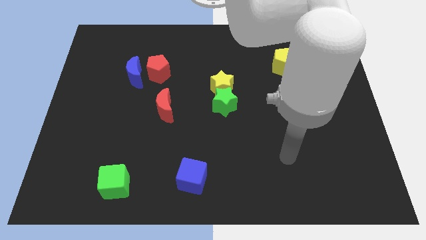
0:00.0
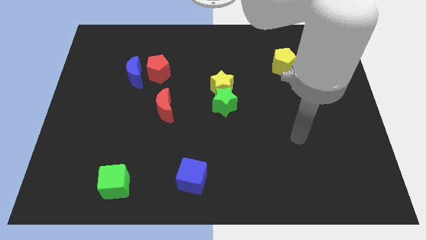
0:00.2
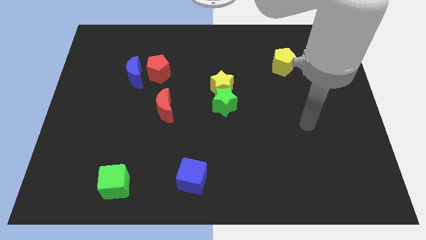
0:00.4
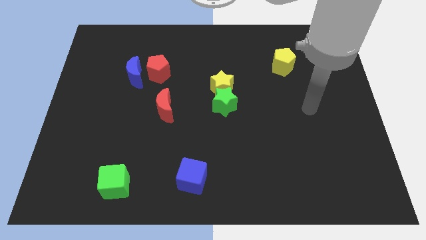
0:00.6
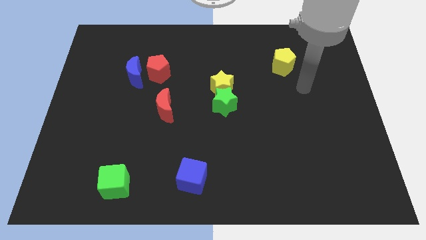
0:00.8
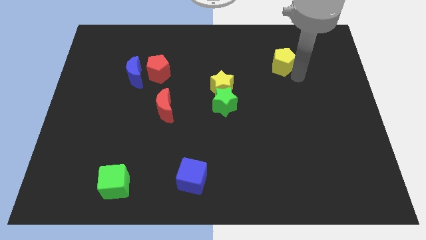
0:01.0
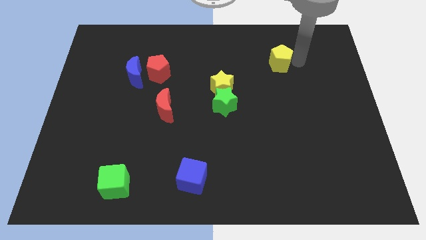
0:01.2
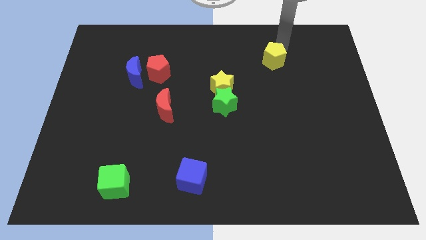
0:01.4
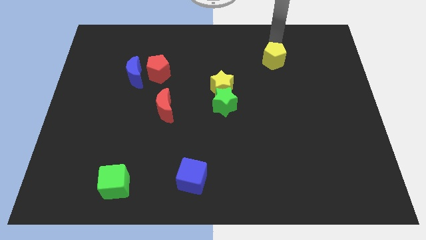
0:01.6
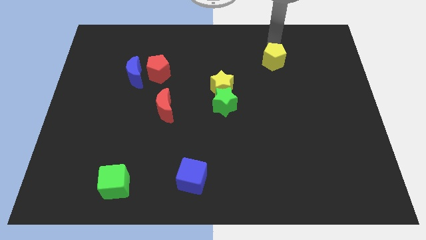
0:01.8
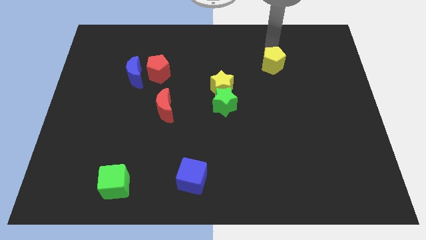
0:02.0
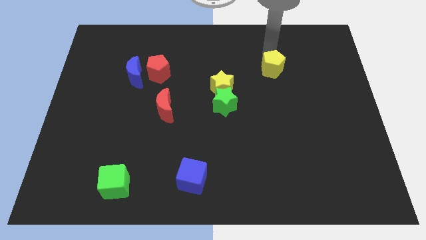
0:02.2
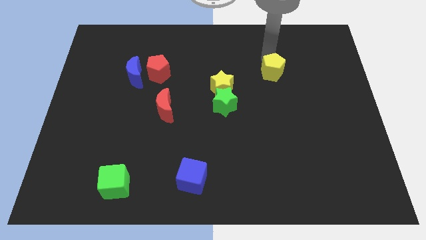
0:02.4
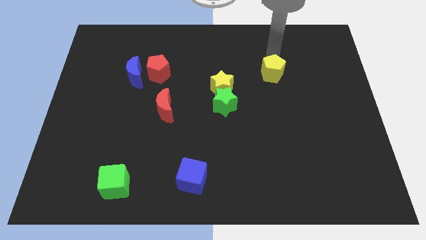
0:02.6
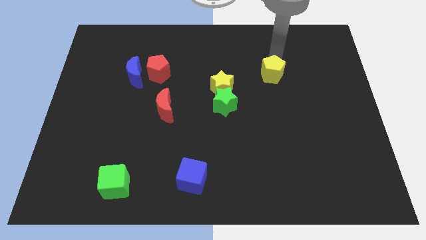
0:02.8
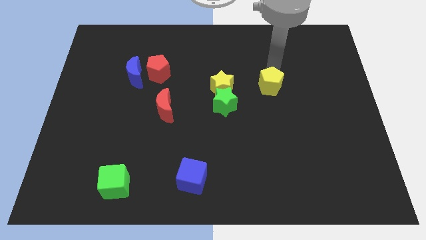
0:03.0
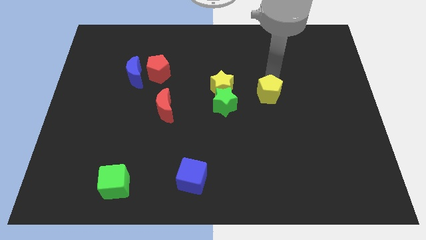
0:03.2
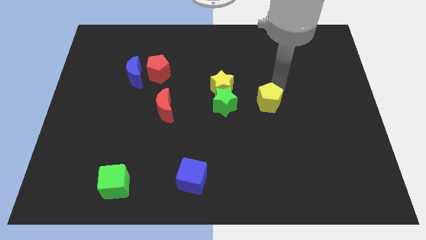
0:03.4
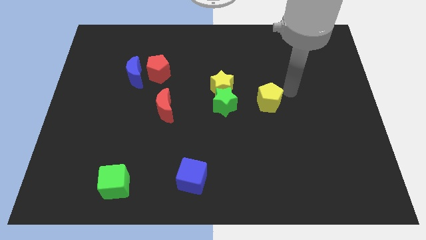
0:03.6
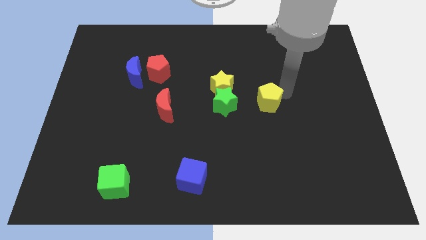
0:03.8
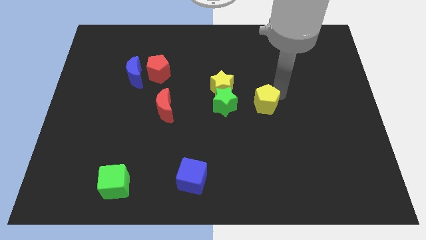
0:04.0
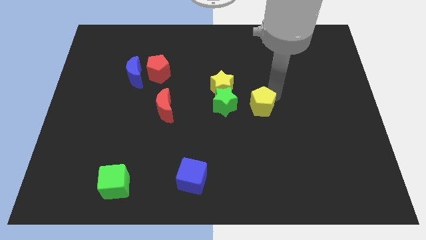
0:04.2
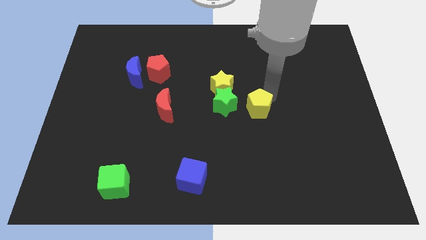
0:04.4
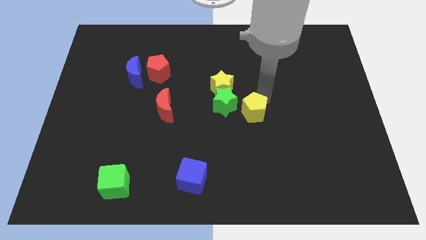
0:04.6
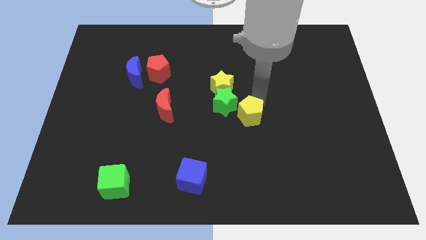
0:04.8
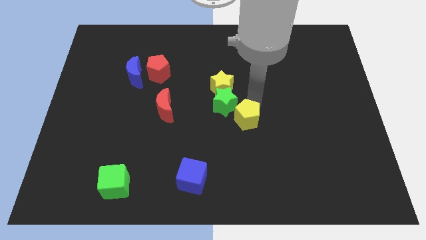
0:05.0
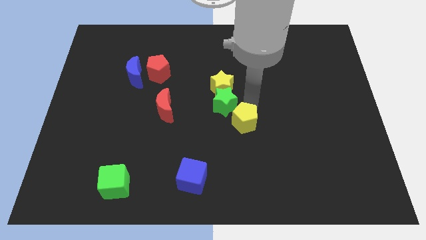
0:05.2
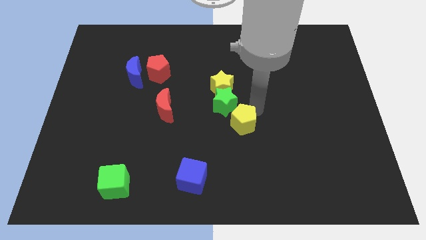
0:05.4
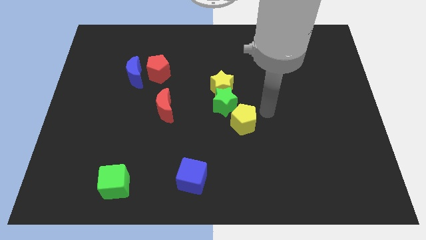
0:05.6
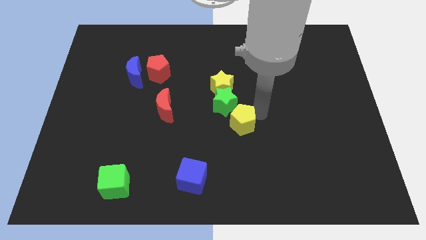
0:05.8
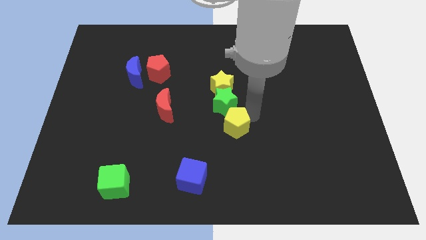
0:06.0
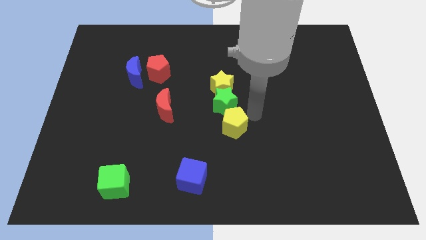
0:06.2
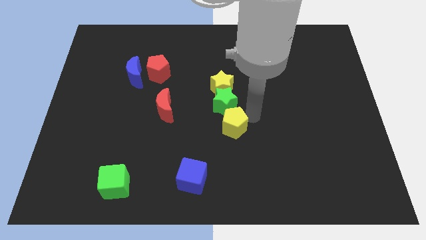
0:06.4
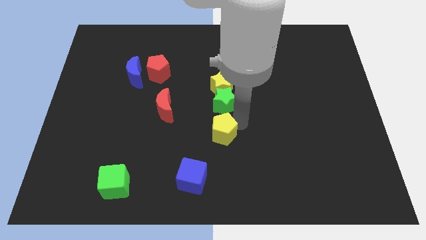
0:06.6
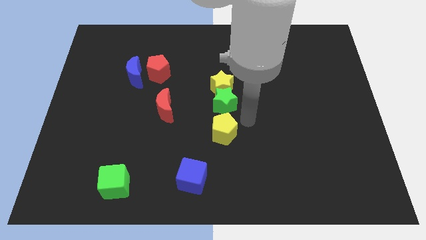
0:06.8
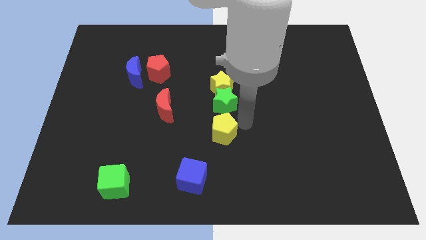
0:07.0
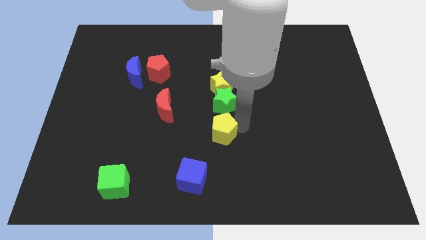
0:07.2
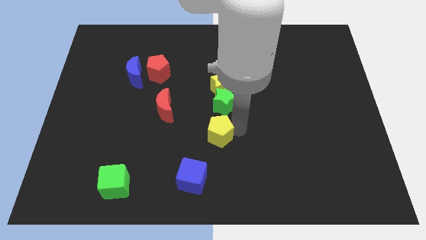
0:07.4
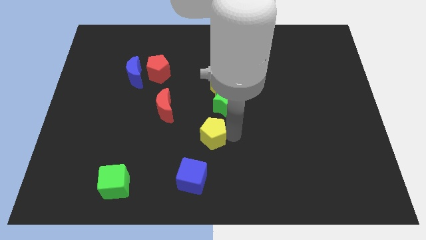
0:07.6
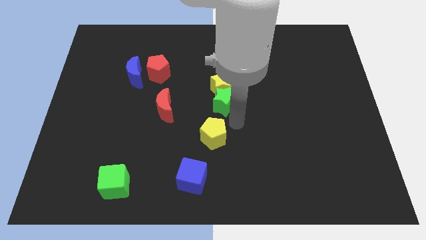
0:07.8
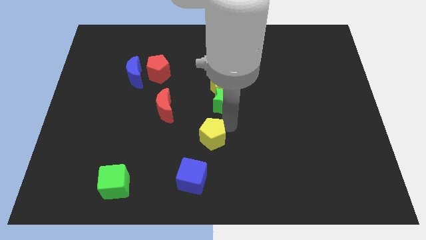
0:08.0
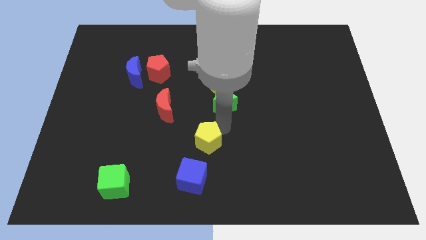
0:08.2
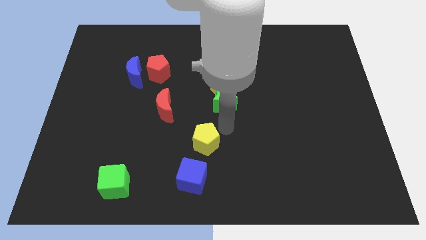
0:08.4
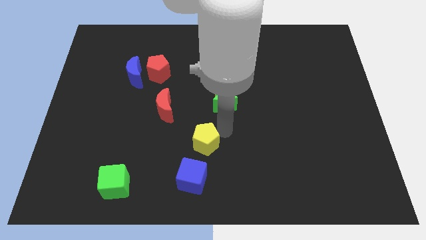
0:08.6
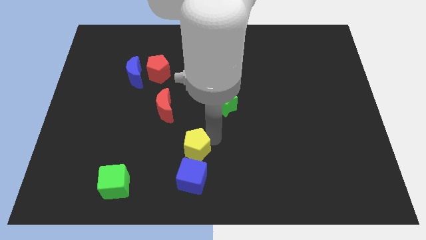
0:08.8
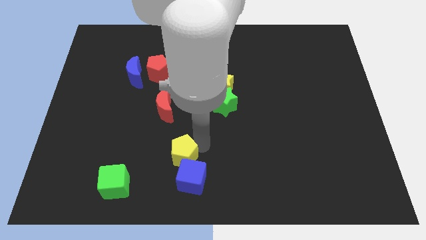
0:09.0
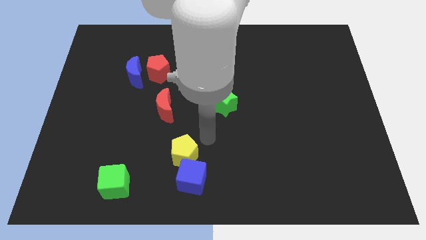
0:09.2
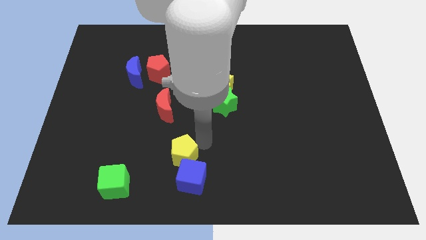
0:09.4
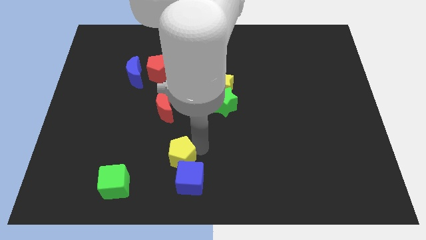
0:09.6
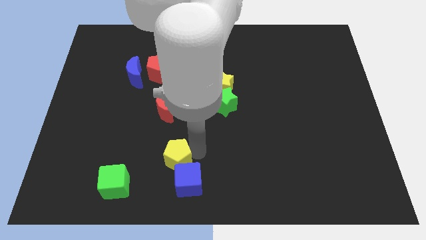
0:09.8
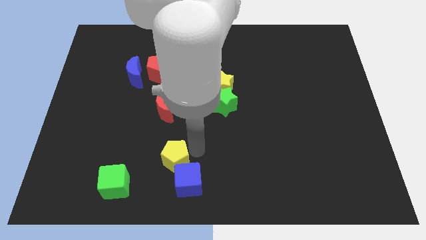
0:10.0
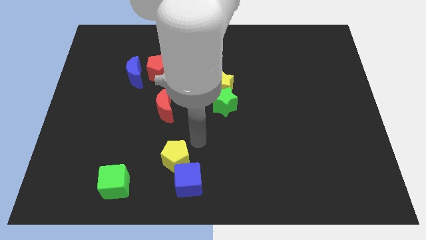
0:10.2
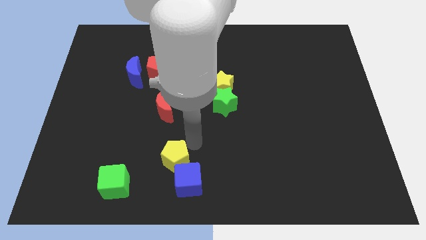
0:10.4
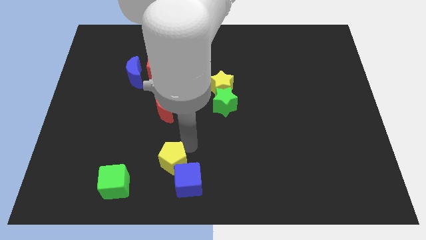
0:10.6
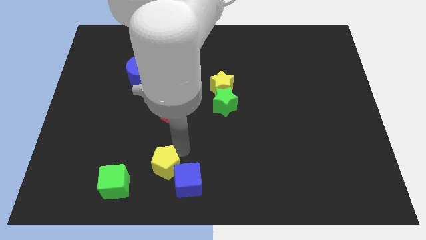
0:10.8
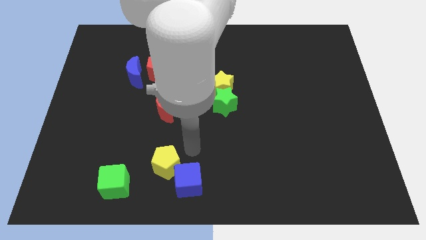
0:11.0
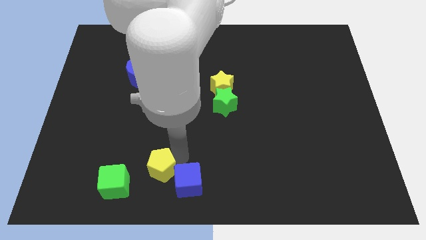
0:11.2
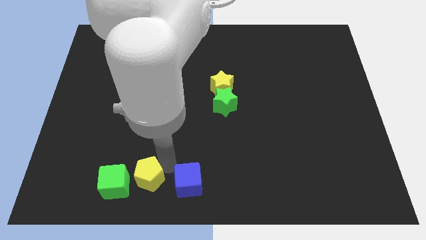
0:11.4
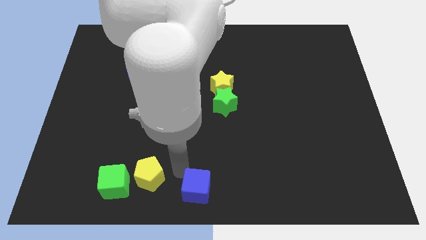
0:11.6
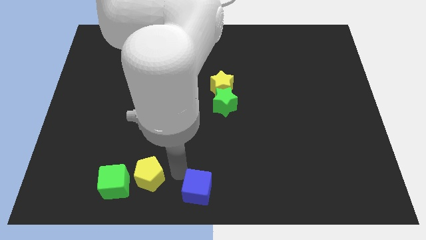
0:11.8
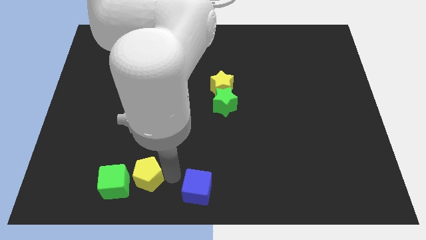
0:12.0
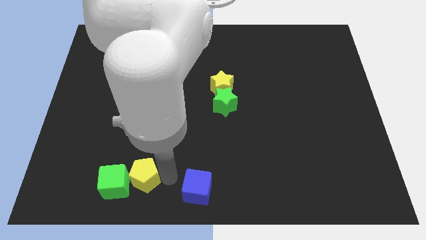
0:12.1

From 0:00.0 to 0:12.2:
push the yellow pentagon next to the green cube

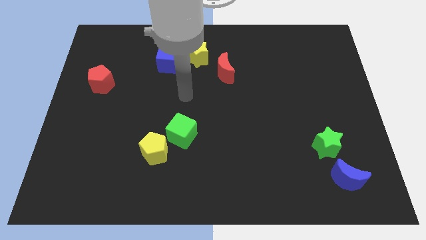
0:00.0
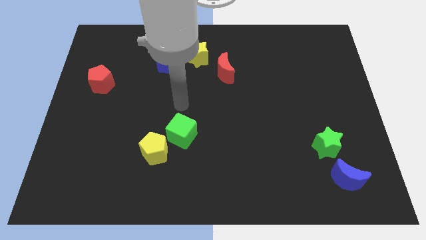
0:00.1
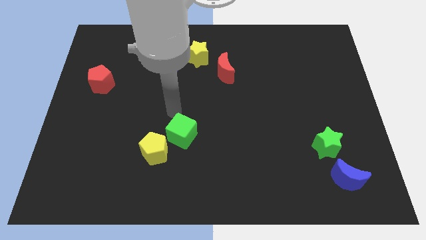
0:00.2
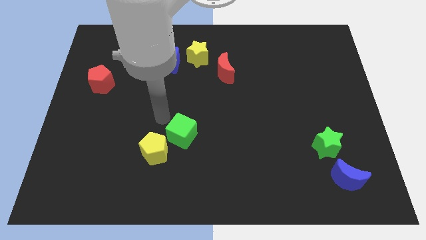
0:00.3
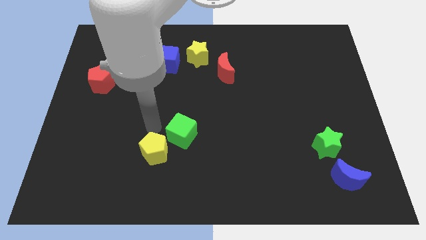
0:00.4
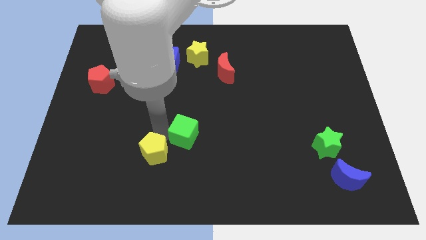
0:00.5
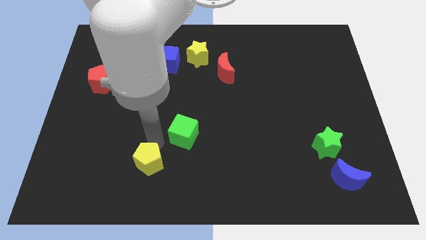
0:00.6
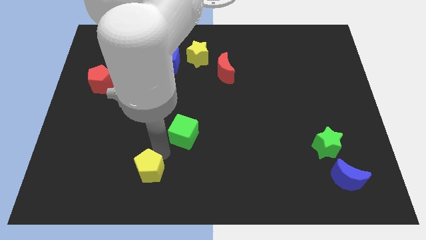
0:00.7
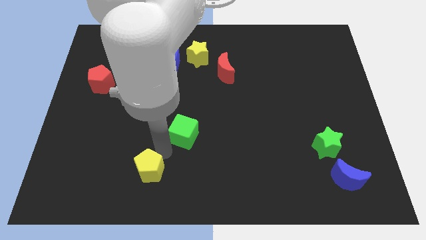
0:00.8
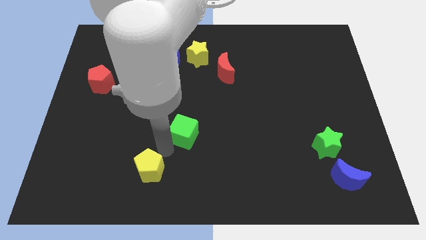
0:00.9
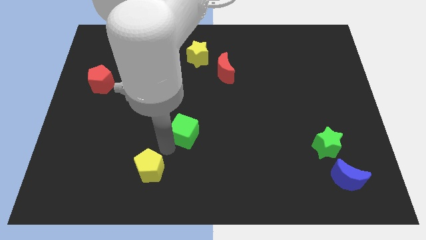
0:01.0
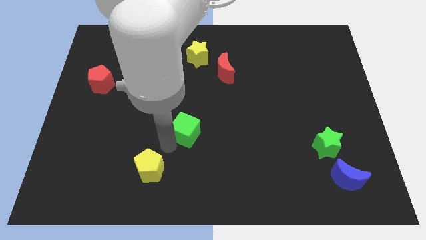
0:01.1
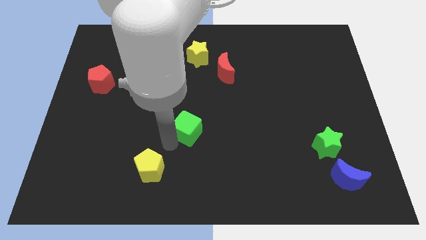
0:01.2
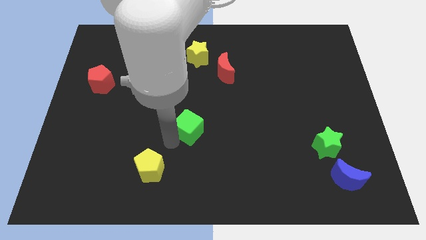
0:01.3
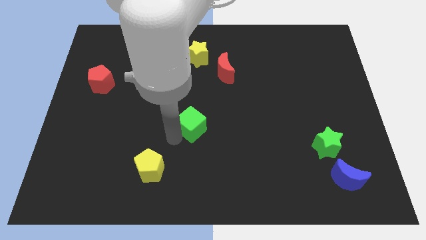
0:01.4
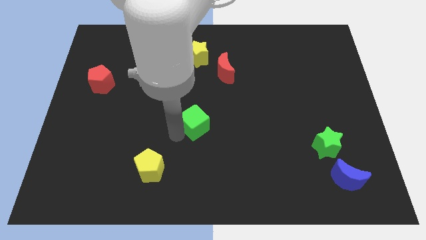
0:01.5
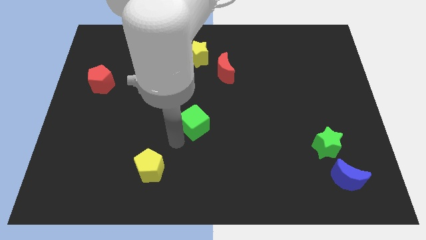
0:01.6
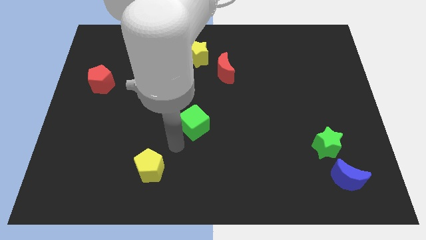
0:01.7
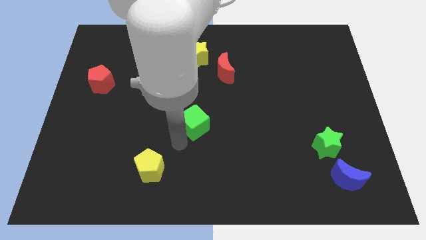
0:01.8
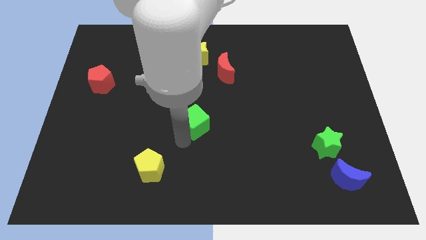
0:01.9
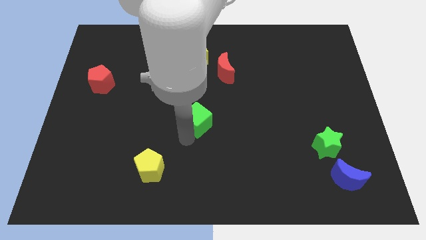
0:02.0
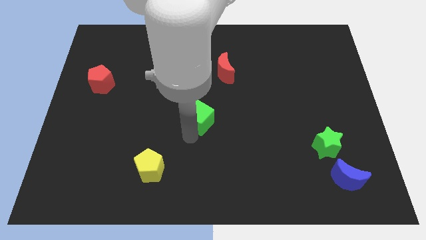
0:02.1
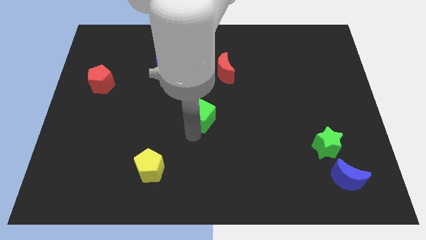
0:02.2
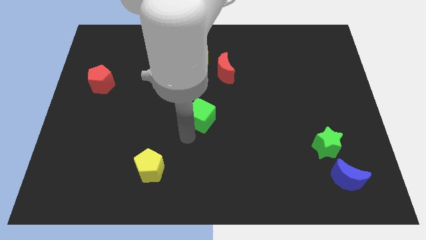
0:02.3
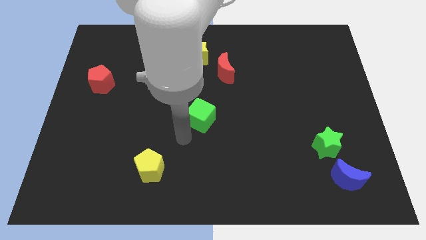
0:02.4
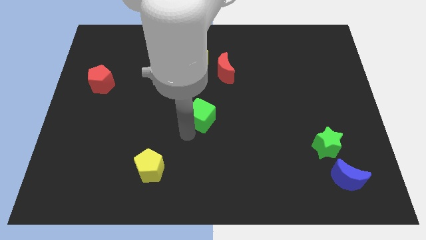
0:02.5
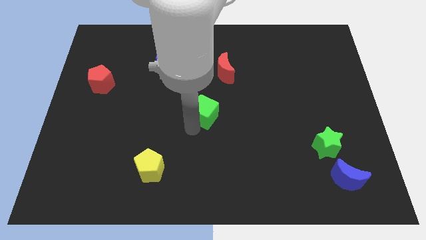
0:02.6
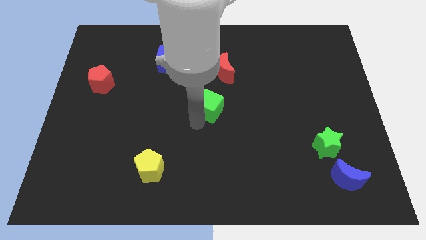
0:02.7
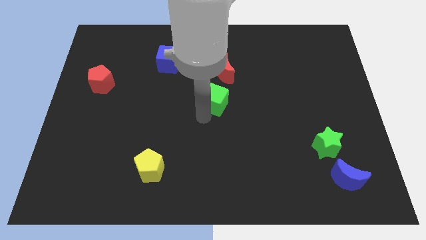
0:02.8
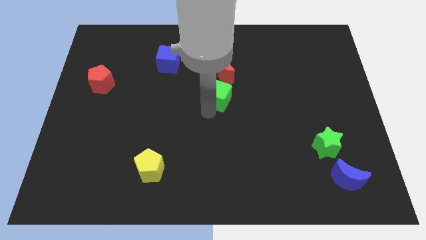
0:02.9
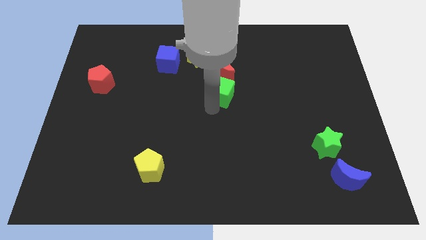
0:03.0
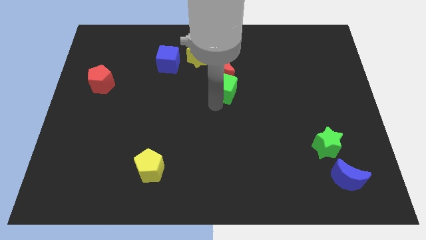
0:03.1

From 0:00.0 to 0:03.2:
push the green cube to the red moon
